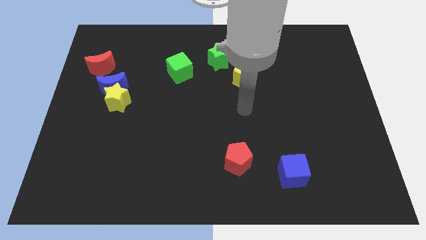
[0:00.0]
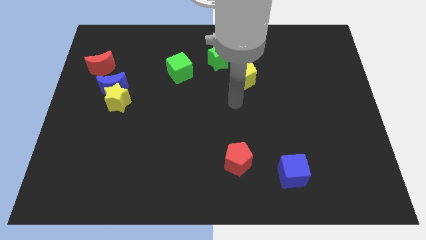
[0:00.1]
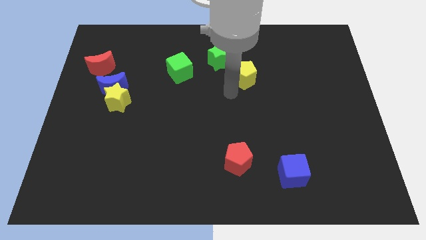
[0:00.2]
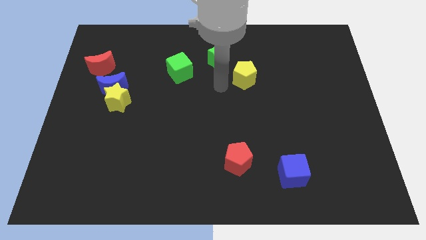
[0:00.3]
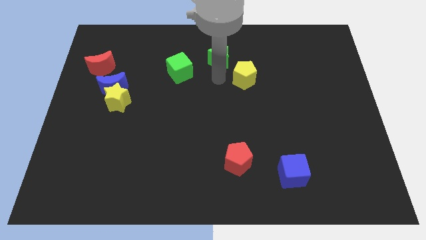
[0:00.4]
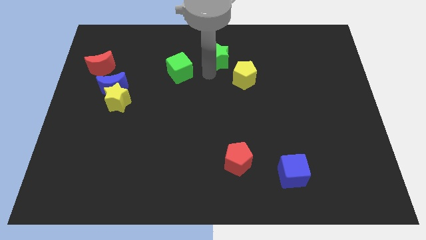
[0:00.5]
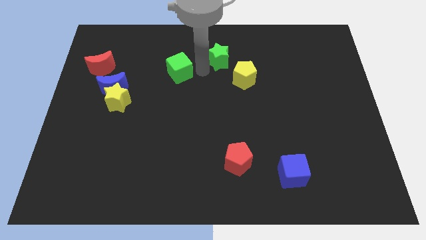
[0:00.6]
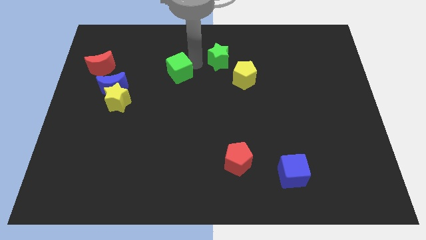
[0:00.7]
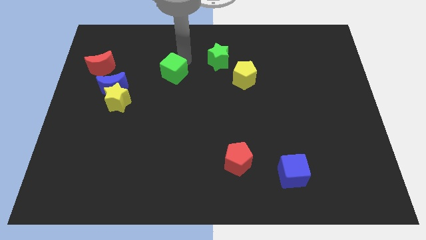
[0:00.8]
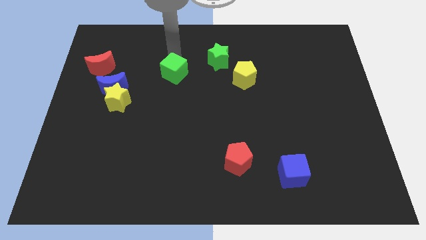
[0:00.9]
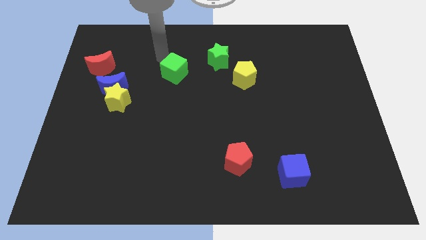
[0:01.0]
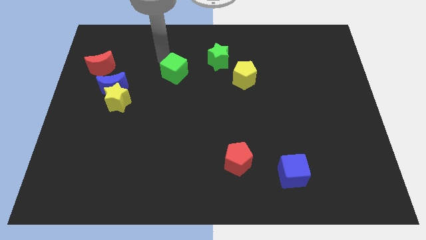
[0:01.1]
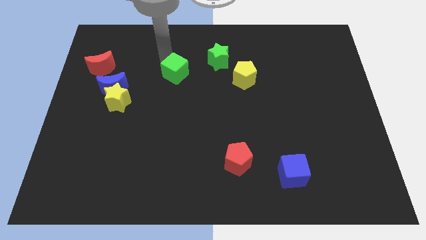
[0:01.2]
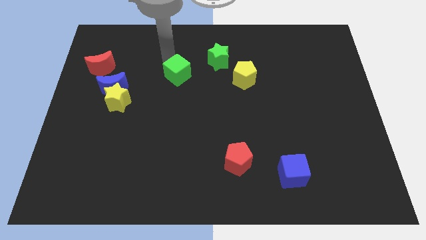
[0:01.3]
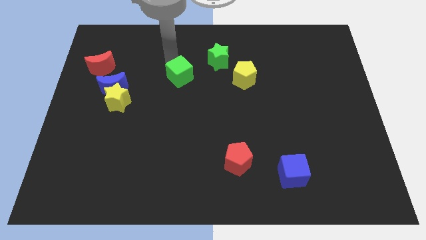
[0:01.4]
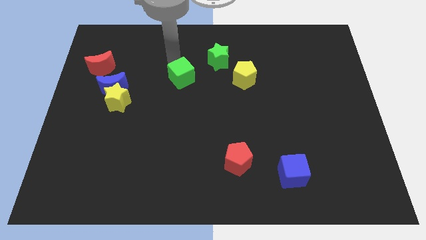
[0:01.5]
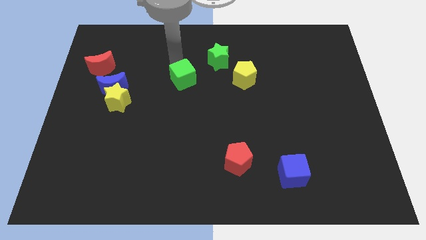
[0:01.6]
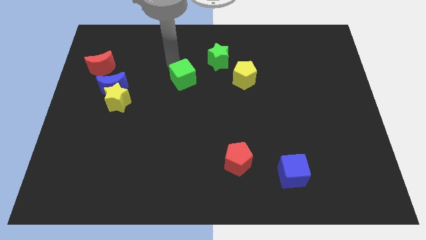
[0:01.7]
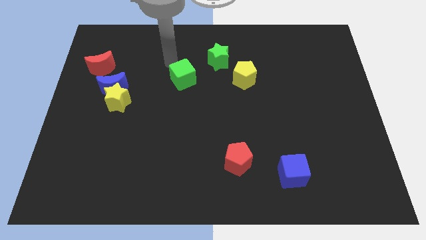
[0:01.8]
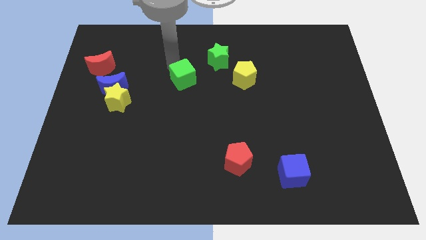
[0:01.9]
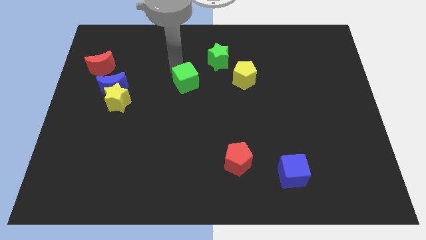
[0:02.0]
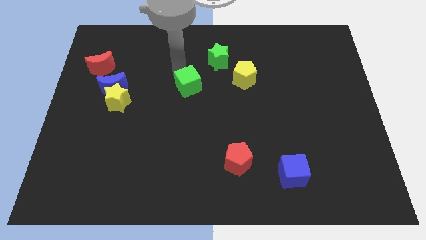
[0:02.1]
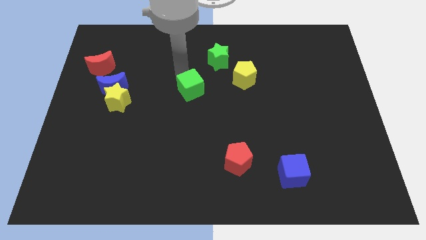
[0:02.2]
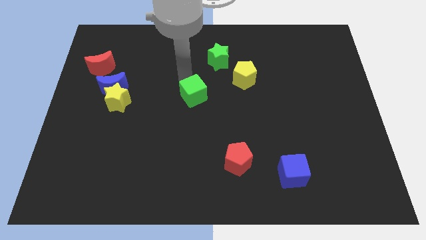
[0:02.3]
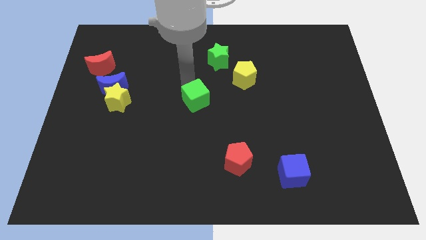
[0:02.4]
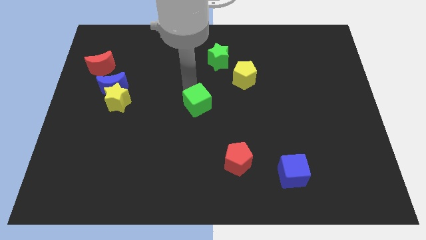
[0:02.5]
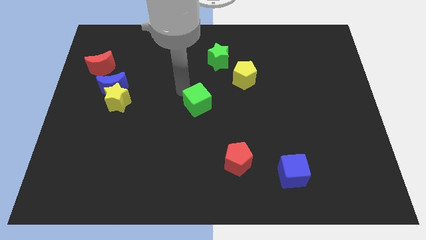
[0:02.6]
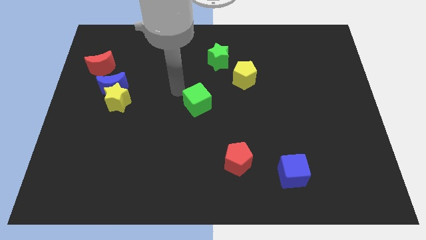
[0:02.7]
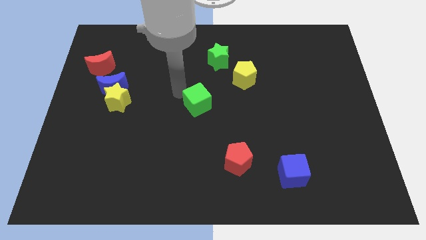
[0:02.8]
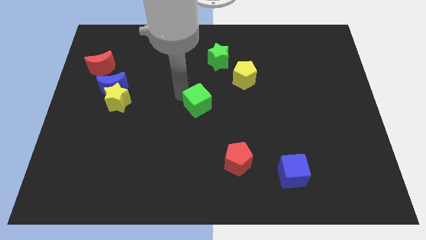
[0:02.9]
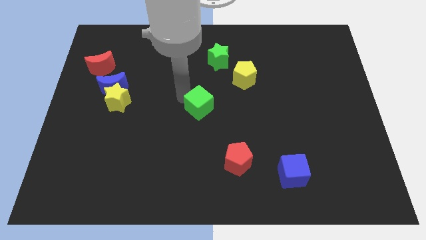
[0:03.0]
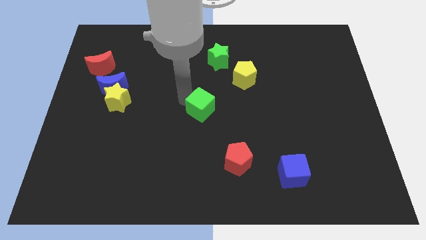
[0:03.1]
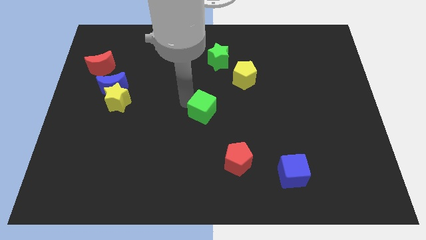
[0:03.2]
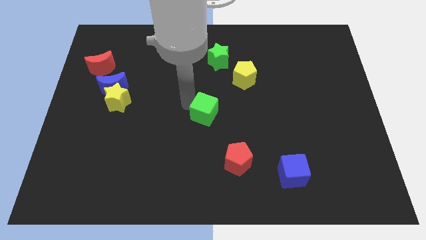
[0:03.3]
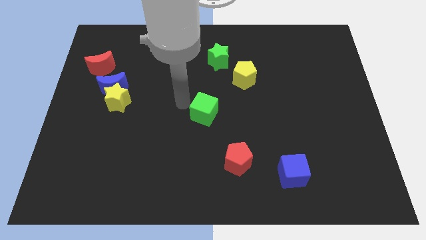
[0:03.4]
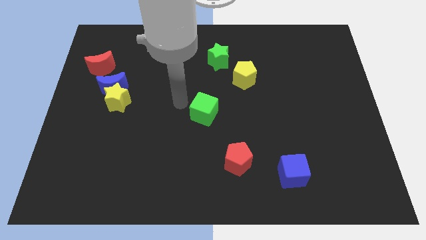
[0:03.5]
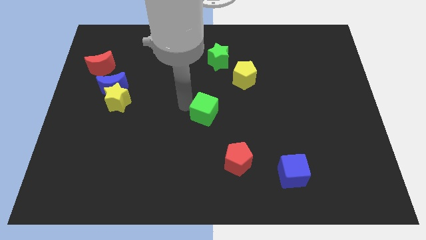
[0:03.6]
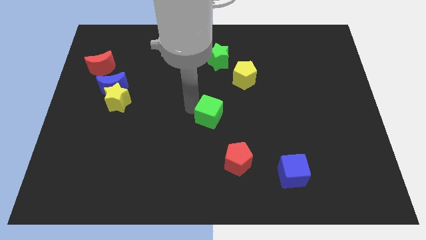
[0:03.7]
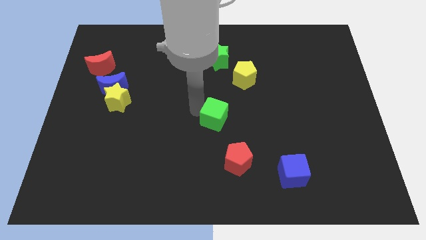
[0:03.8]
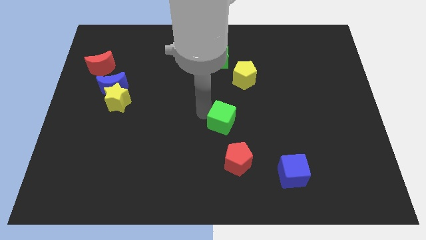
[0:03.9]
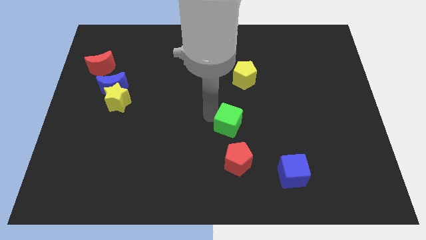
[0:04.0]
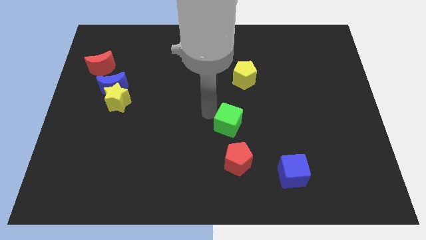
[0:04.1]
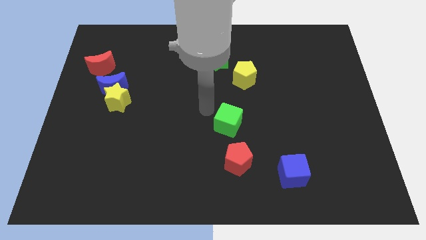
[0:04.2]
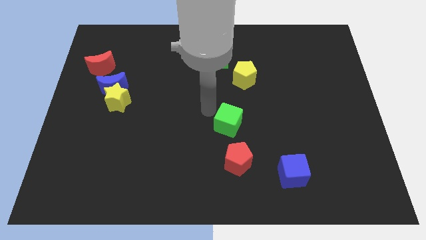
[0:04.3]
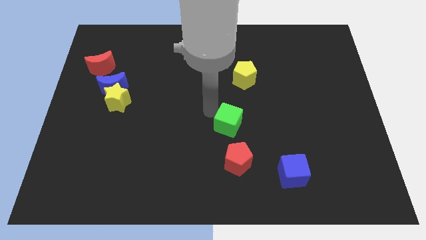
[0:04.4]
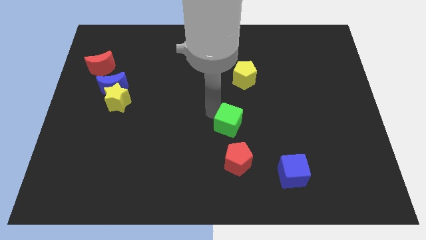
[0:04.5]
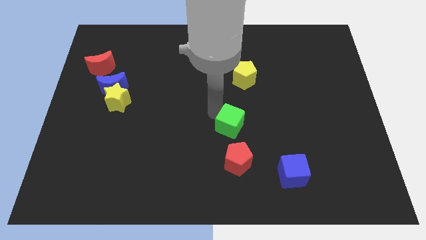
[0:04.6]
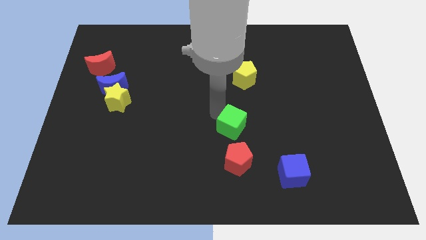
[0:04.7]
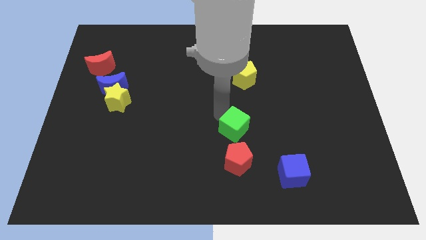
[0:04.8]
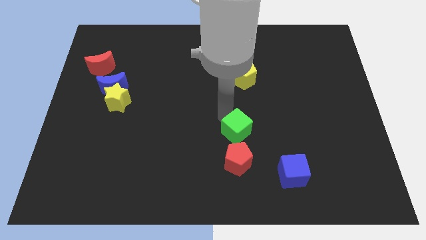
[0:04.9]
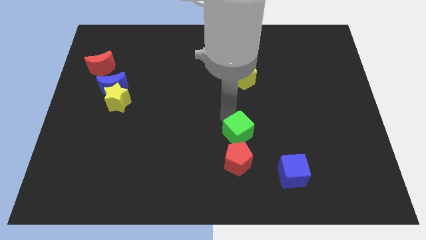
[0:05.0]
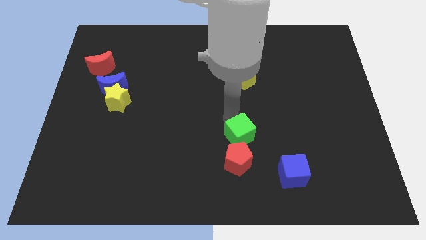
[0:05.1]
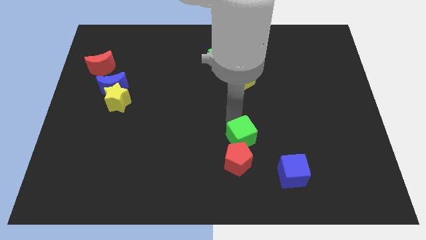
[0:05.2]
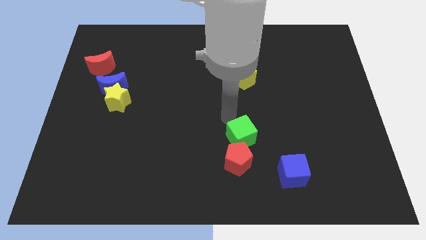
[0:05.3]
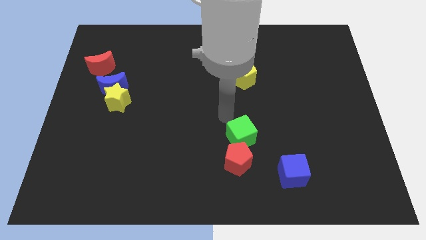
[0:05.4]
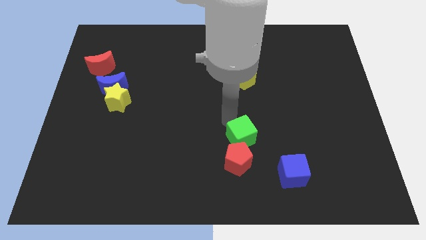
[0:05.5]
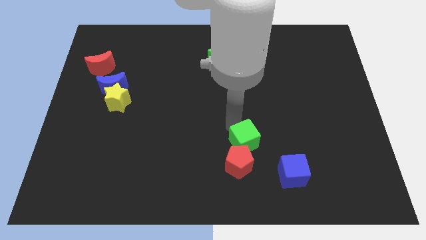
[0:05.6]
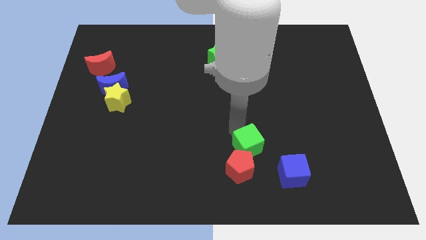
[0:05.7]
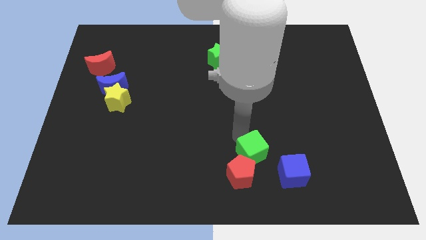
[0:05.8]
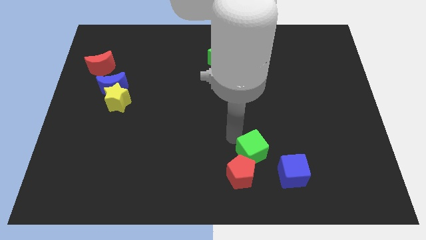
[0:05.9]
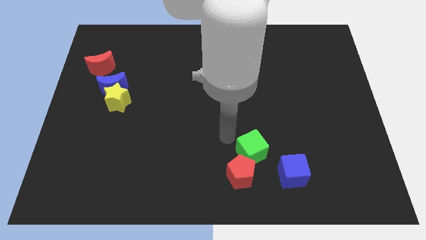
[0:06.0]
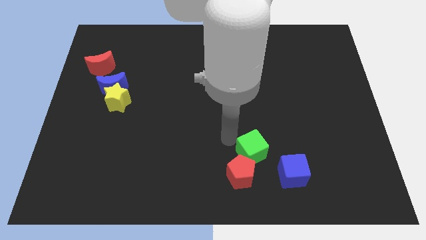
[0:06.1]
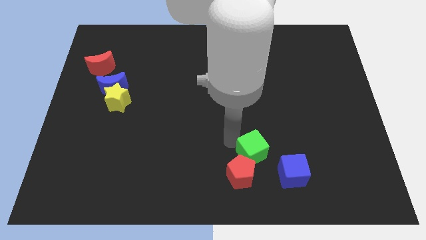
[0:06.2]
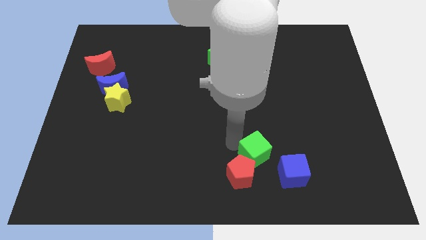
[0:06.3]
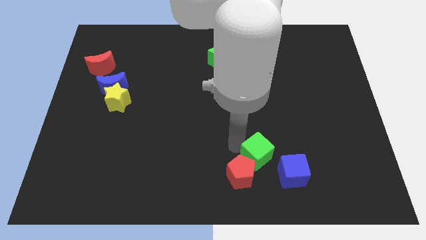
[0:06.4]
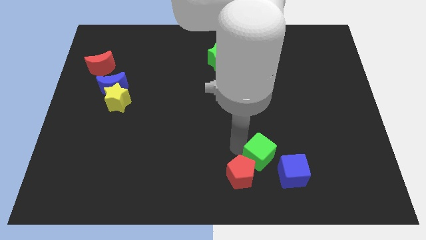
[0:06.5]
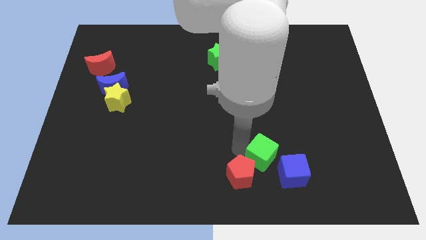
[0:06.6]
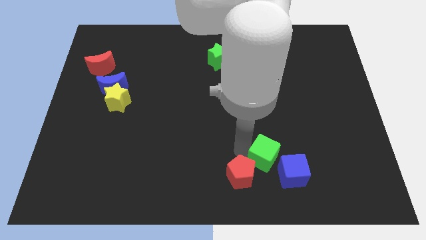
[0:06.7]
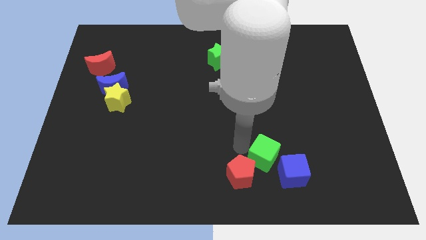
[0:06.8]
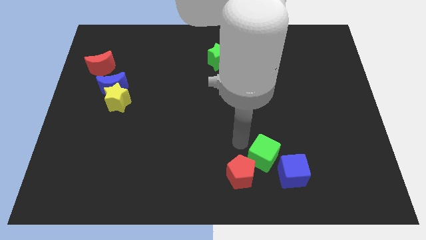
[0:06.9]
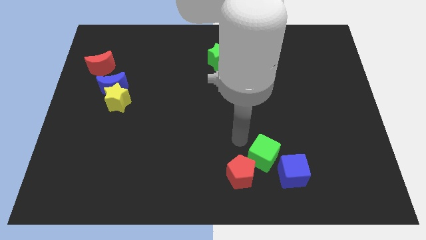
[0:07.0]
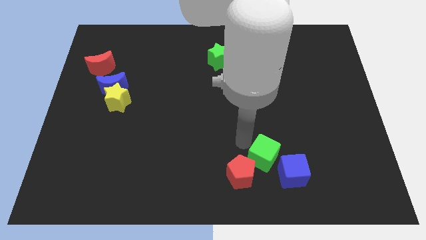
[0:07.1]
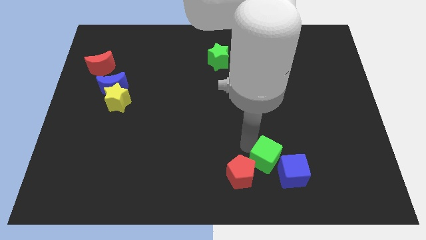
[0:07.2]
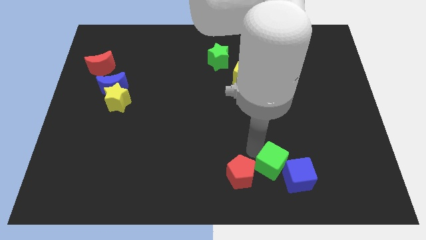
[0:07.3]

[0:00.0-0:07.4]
push the green cube towards the blue cube

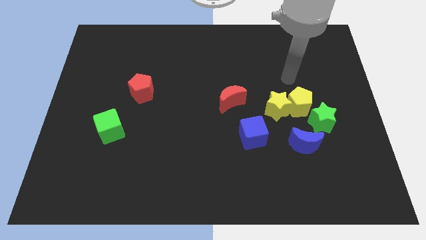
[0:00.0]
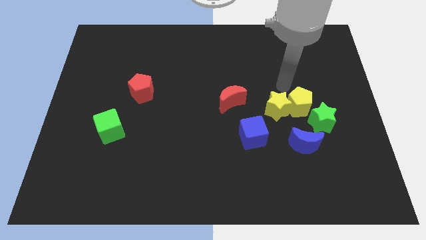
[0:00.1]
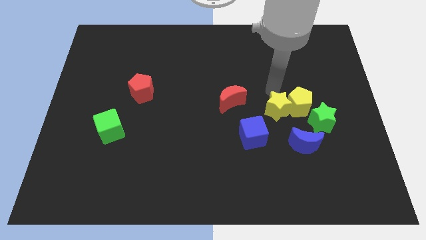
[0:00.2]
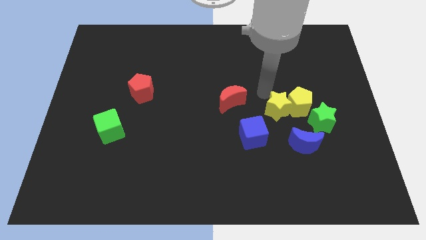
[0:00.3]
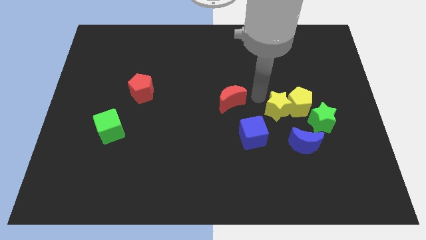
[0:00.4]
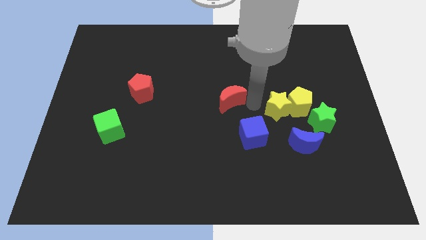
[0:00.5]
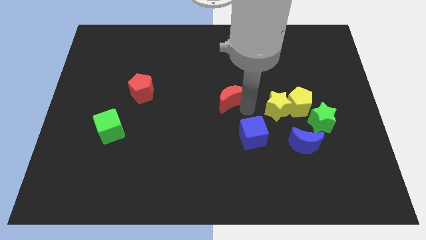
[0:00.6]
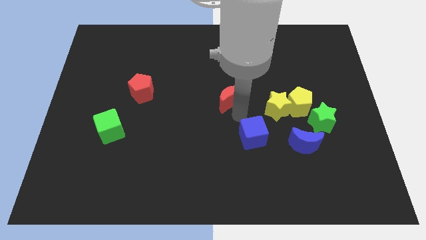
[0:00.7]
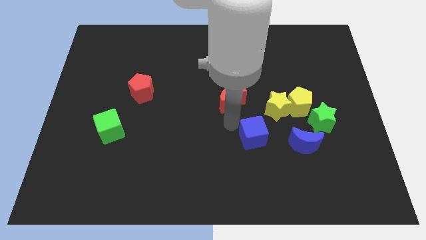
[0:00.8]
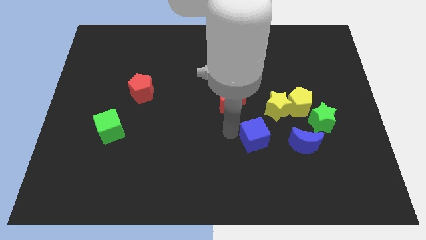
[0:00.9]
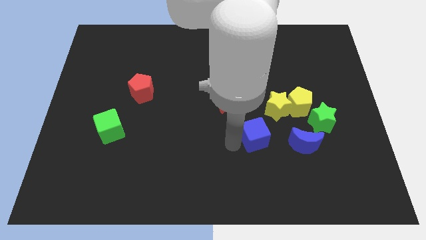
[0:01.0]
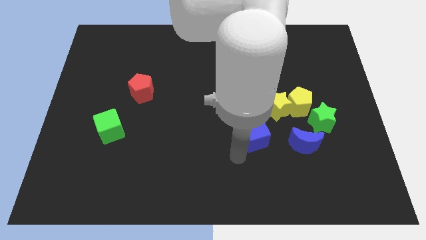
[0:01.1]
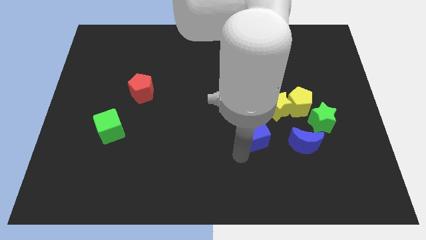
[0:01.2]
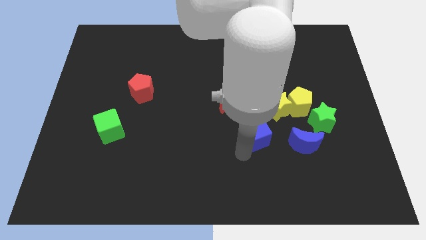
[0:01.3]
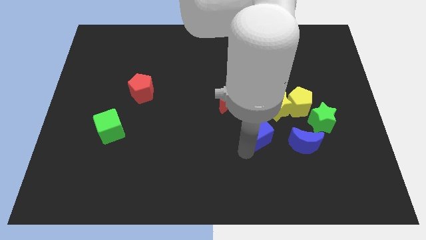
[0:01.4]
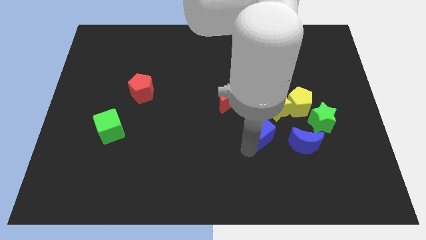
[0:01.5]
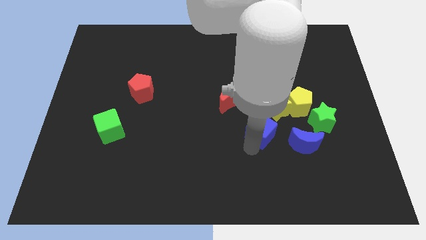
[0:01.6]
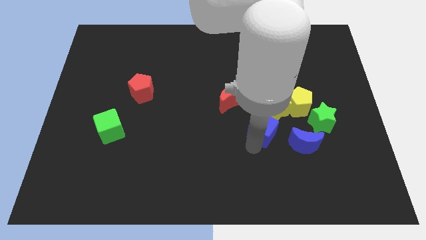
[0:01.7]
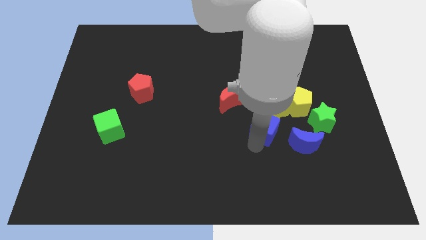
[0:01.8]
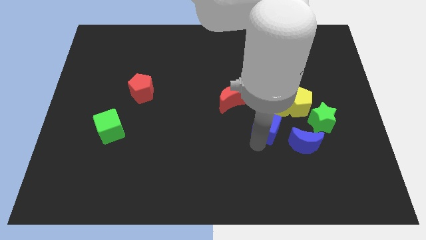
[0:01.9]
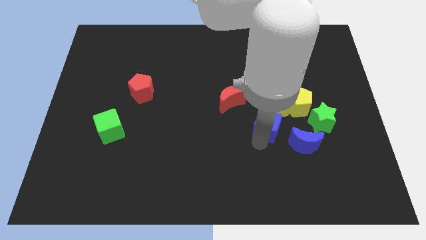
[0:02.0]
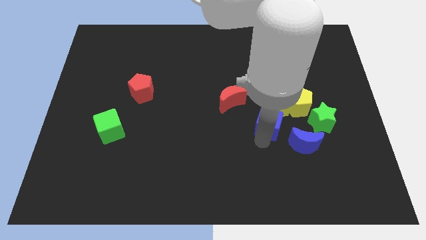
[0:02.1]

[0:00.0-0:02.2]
push the blue cube to the yellow star
